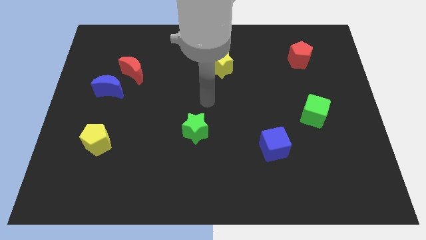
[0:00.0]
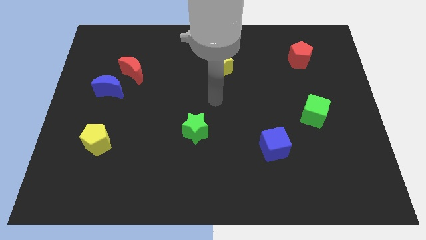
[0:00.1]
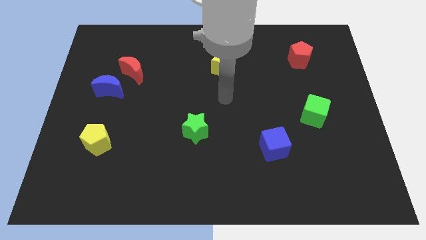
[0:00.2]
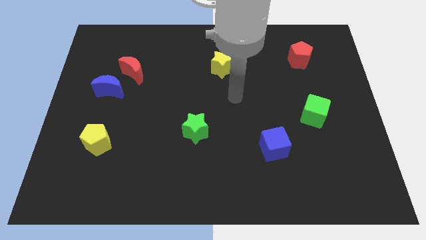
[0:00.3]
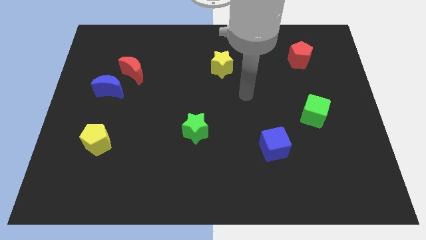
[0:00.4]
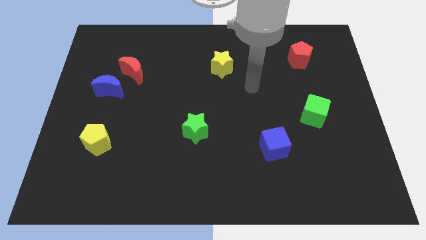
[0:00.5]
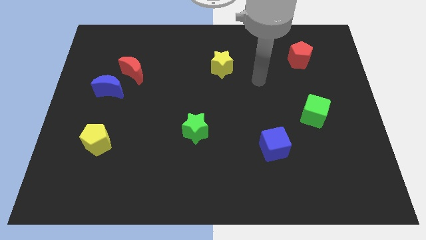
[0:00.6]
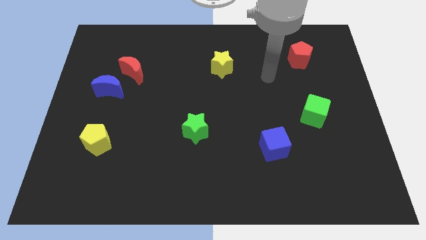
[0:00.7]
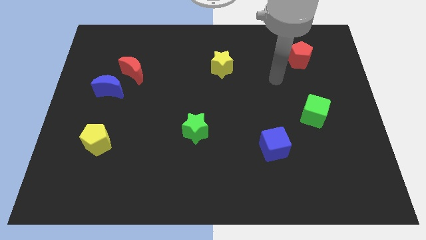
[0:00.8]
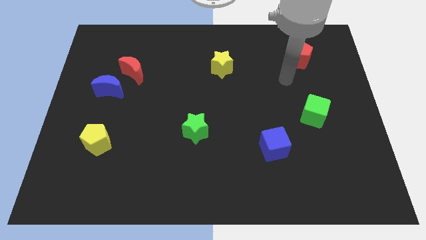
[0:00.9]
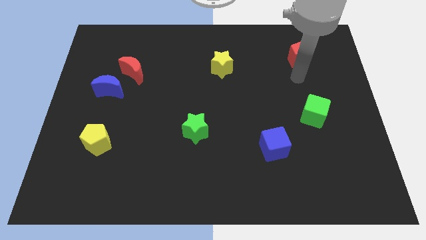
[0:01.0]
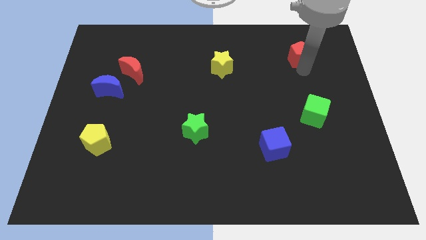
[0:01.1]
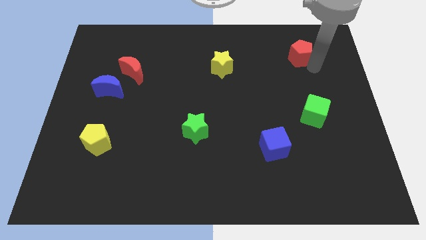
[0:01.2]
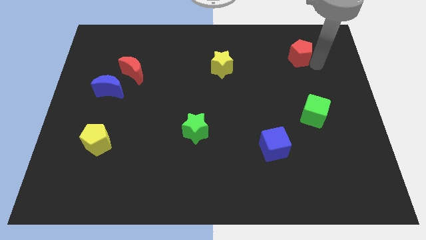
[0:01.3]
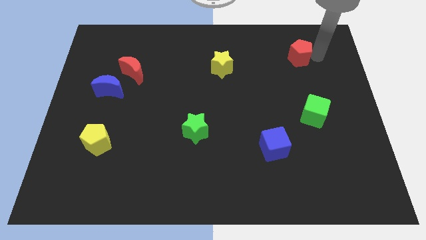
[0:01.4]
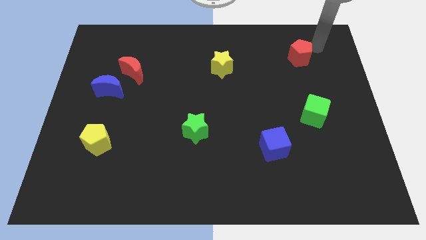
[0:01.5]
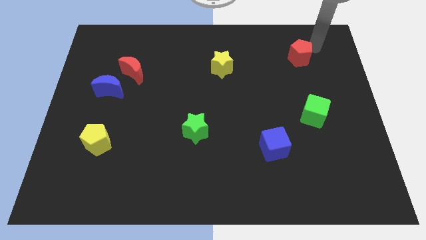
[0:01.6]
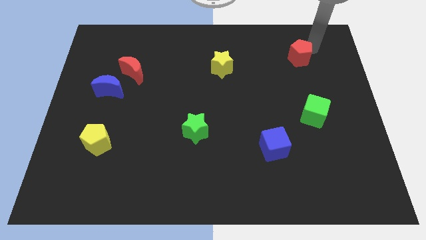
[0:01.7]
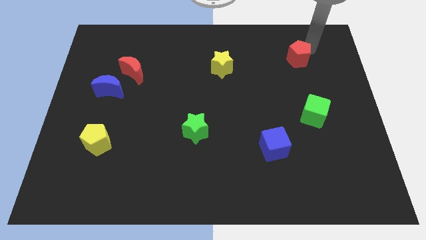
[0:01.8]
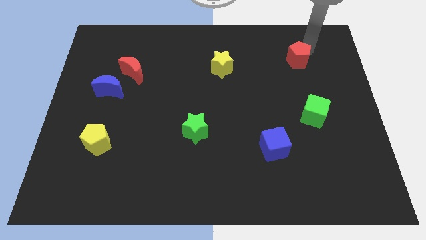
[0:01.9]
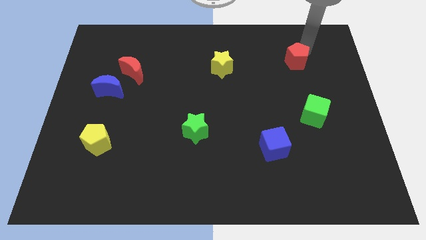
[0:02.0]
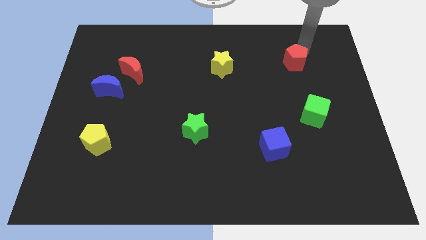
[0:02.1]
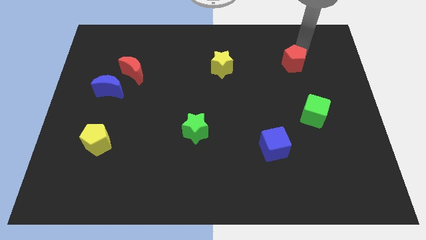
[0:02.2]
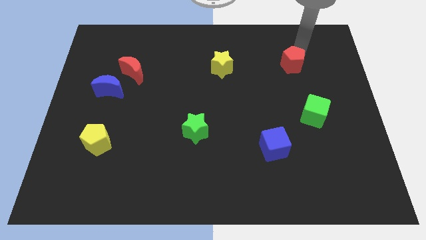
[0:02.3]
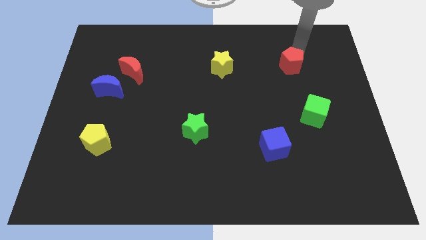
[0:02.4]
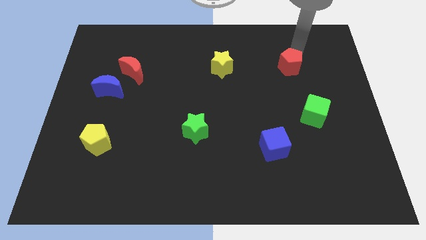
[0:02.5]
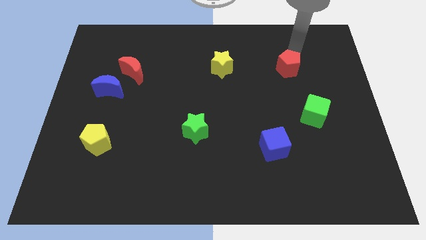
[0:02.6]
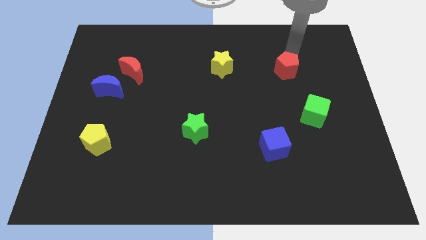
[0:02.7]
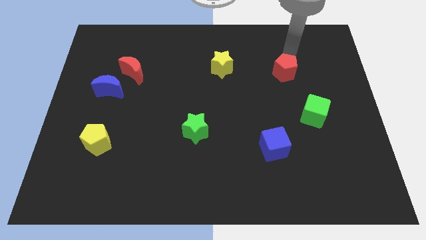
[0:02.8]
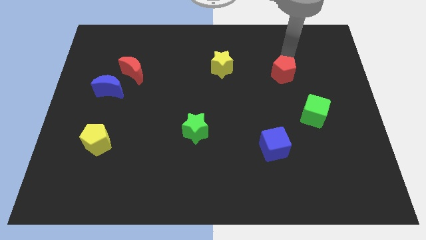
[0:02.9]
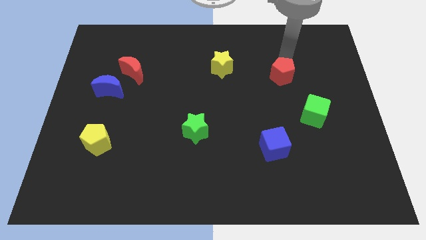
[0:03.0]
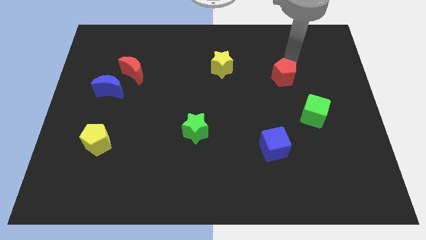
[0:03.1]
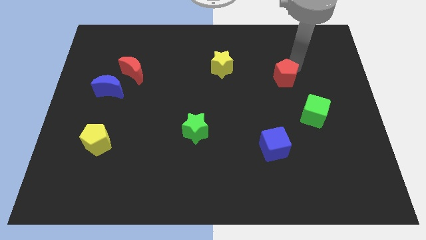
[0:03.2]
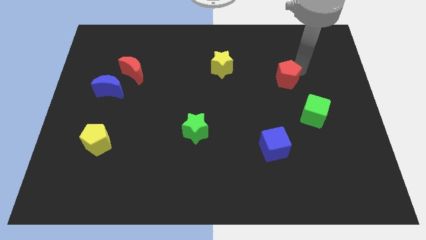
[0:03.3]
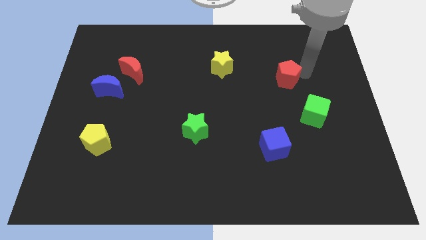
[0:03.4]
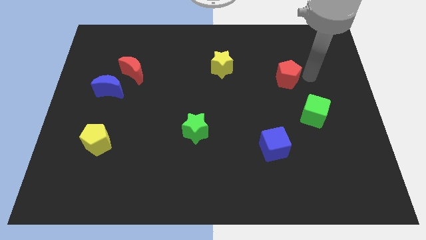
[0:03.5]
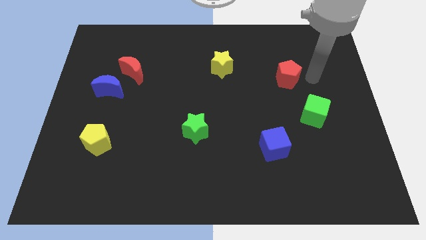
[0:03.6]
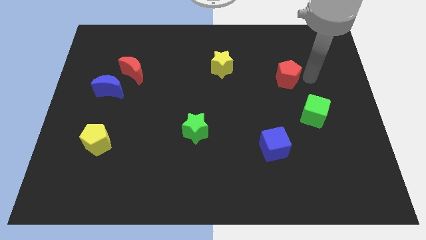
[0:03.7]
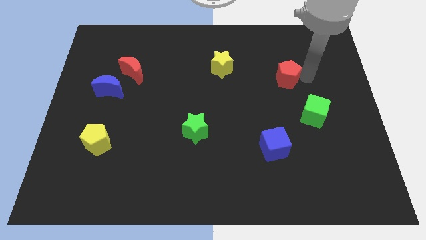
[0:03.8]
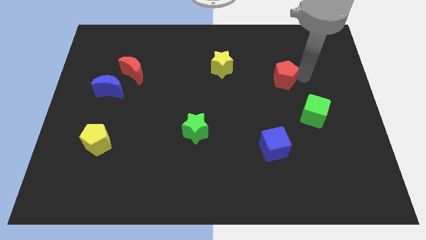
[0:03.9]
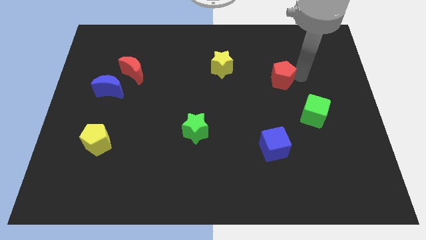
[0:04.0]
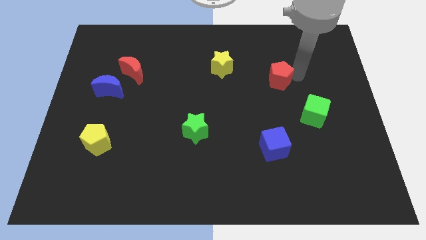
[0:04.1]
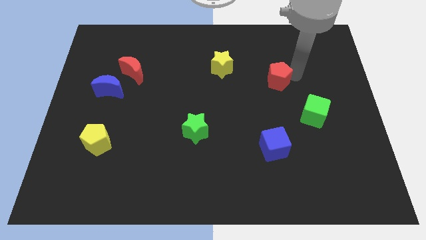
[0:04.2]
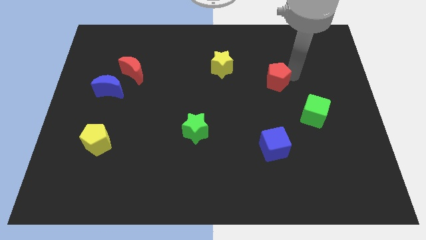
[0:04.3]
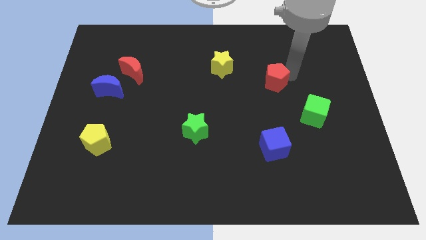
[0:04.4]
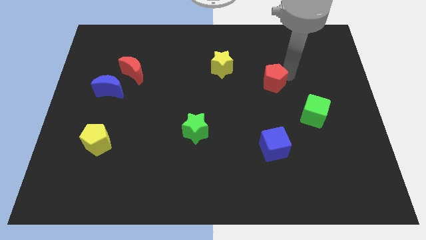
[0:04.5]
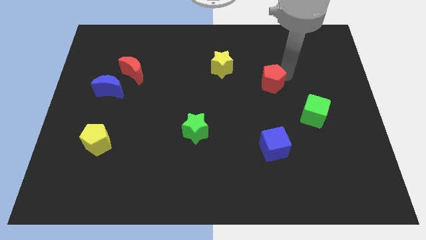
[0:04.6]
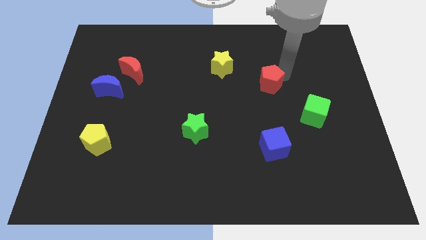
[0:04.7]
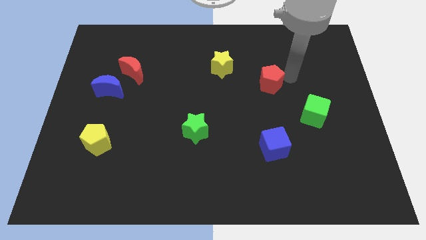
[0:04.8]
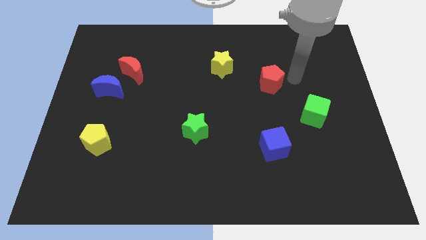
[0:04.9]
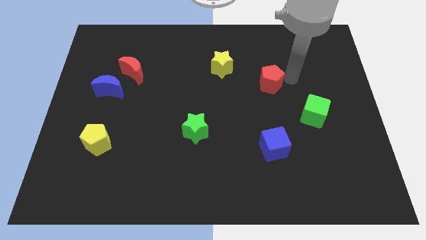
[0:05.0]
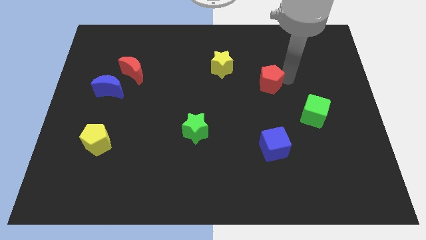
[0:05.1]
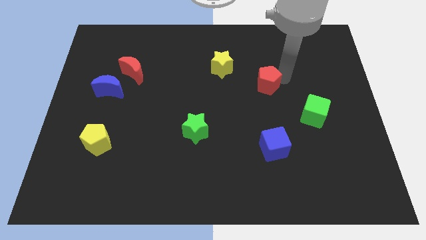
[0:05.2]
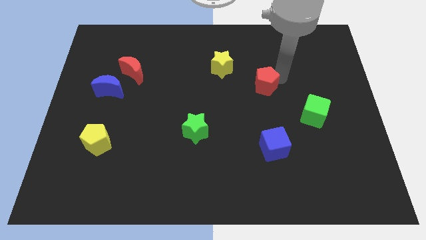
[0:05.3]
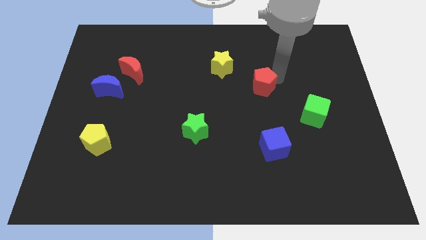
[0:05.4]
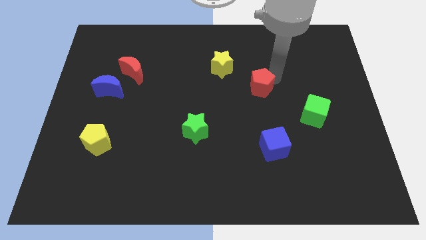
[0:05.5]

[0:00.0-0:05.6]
put the red pentagon to the center of the board

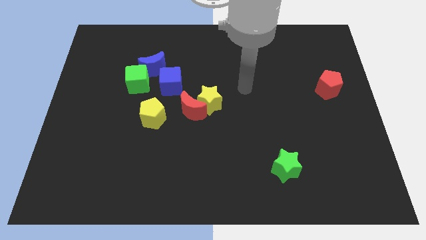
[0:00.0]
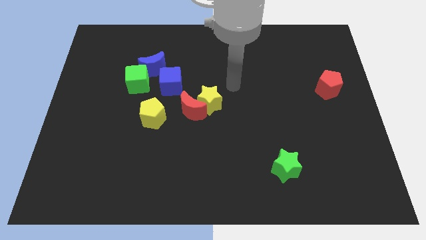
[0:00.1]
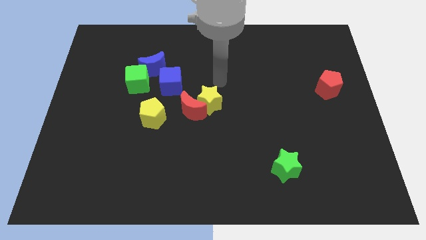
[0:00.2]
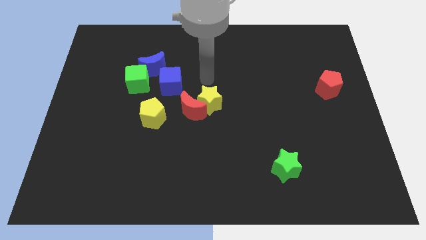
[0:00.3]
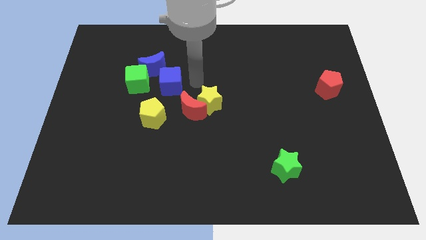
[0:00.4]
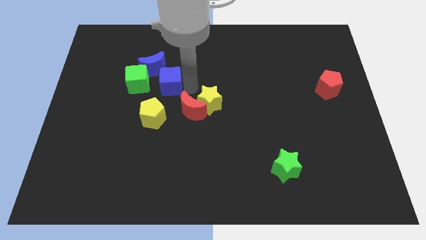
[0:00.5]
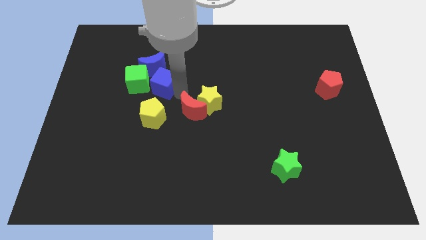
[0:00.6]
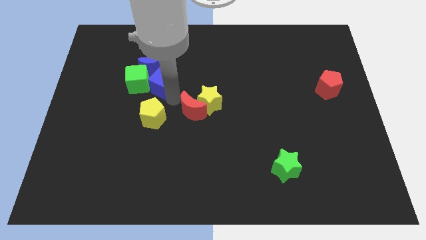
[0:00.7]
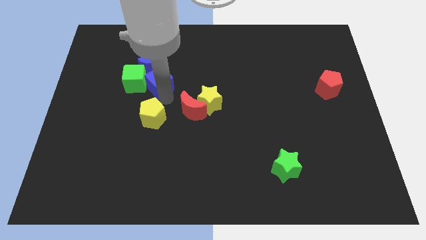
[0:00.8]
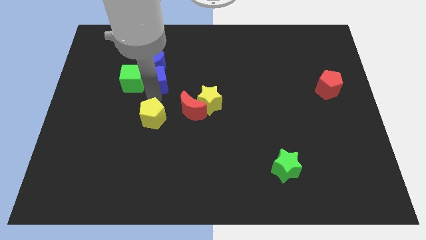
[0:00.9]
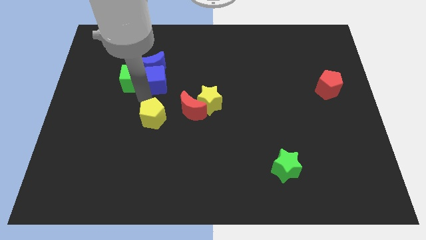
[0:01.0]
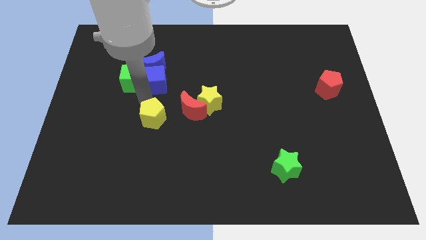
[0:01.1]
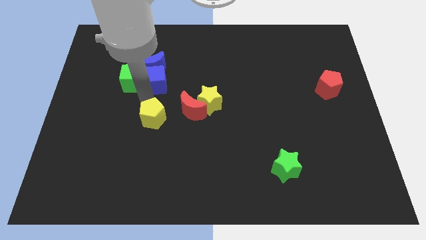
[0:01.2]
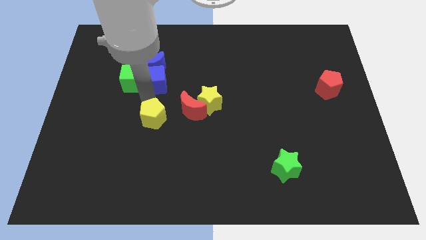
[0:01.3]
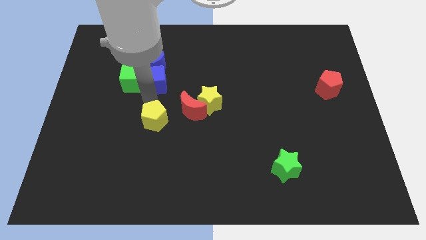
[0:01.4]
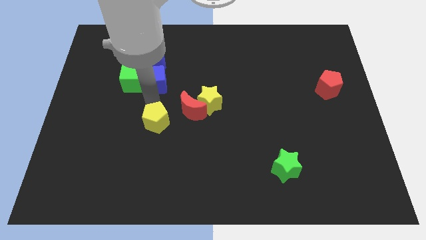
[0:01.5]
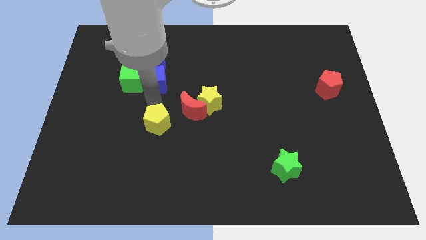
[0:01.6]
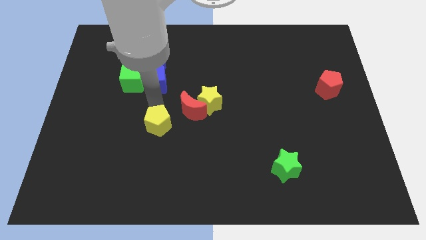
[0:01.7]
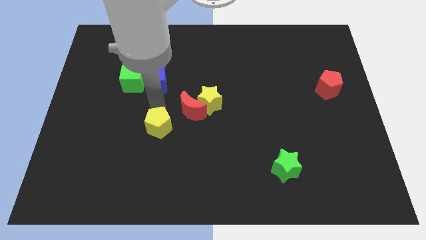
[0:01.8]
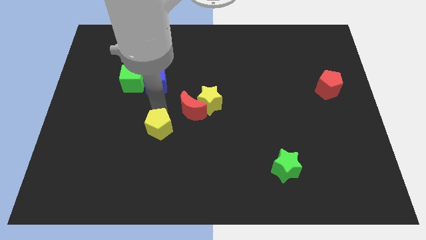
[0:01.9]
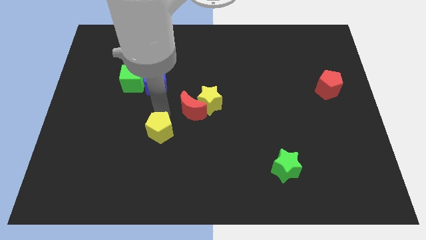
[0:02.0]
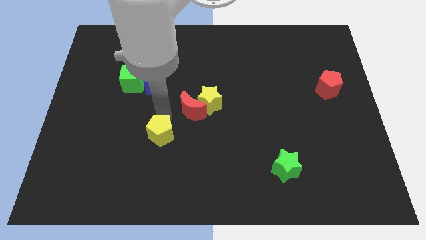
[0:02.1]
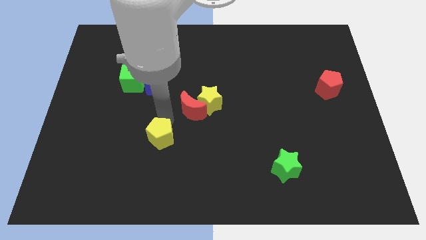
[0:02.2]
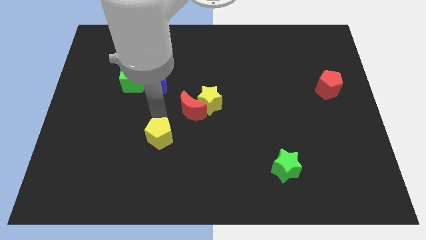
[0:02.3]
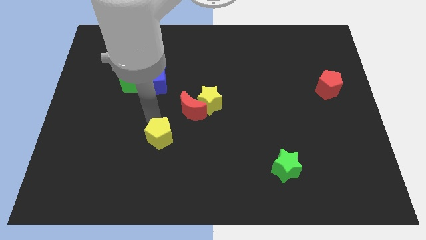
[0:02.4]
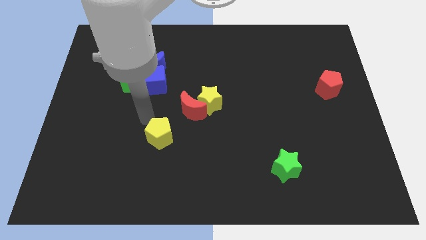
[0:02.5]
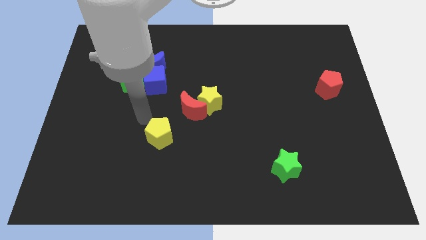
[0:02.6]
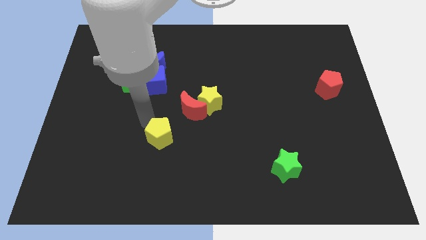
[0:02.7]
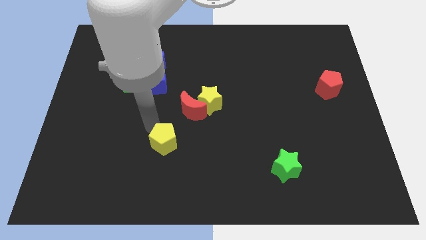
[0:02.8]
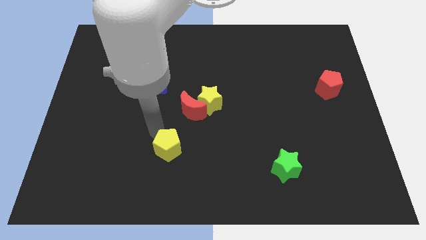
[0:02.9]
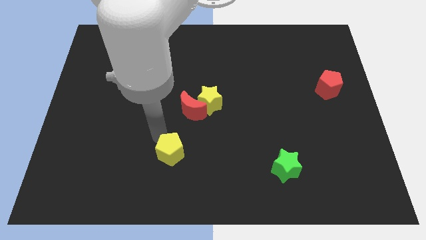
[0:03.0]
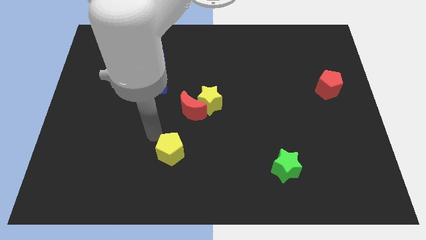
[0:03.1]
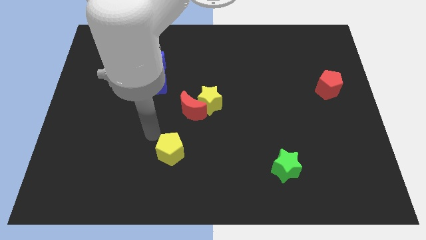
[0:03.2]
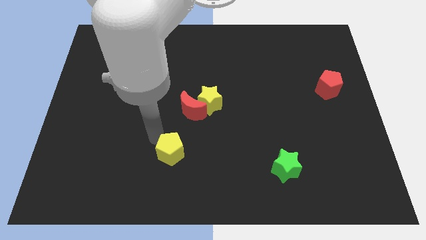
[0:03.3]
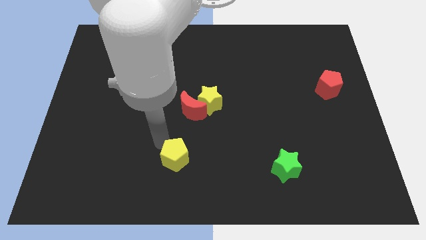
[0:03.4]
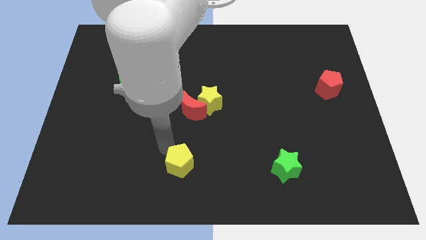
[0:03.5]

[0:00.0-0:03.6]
move the yellow pentagon to the bottom
